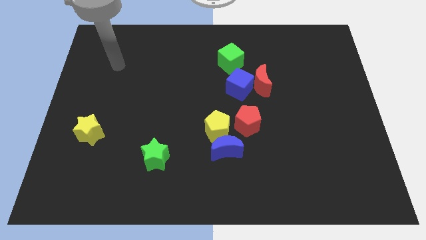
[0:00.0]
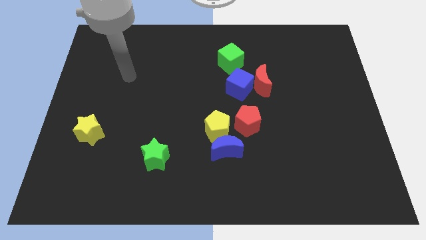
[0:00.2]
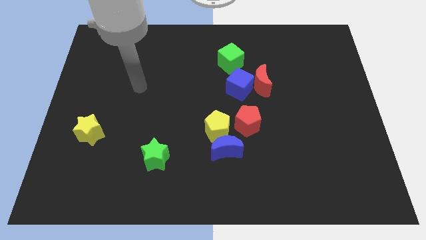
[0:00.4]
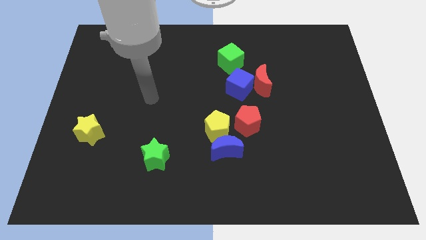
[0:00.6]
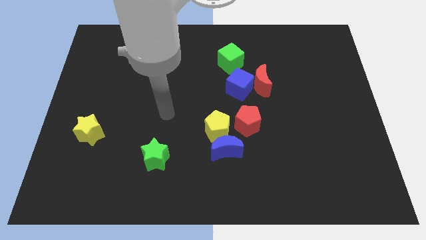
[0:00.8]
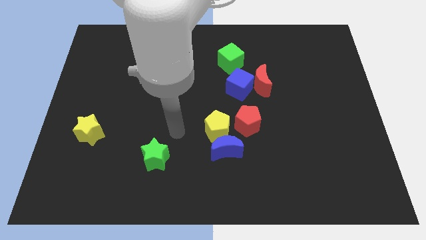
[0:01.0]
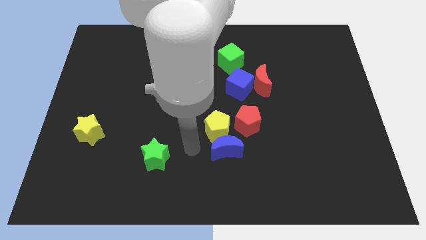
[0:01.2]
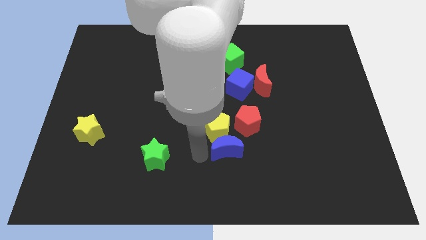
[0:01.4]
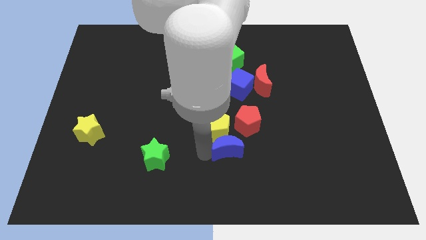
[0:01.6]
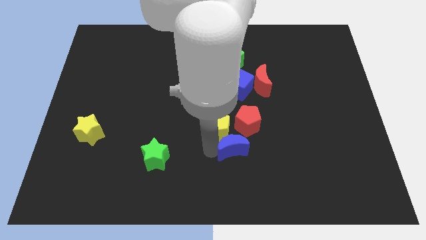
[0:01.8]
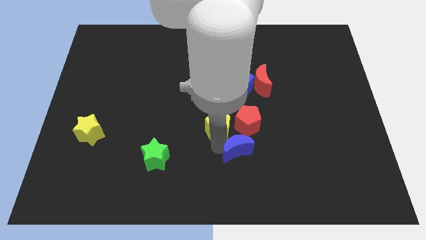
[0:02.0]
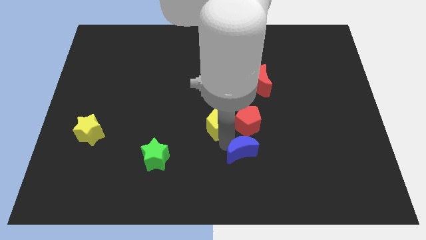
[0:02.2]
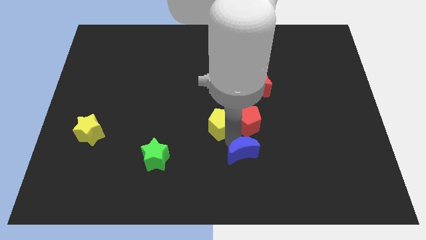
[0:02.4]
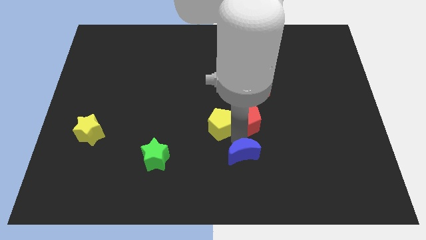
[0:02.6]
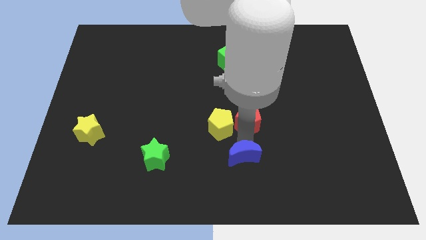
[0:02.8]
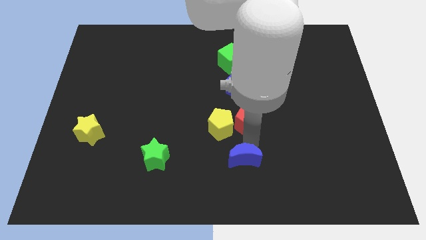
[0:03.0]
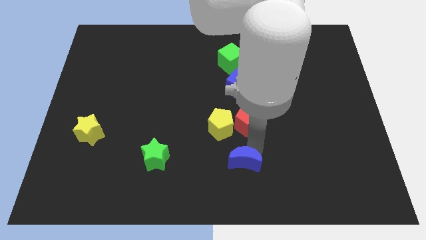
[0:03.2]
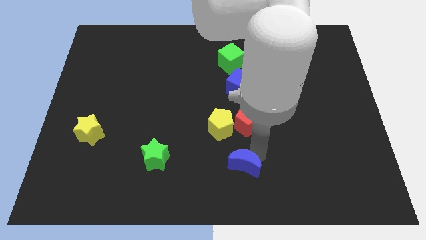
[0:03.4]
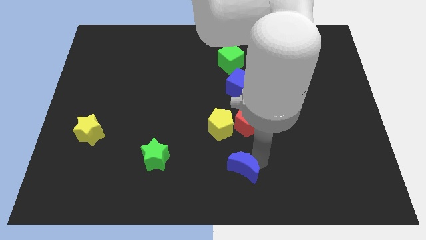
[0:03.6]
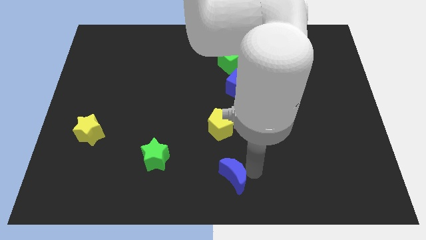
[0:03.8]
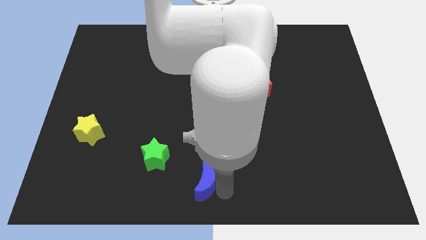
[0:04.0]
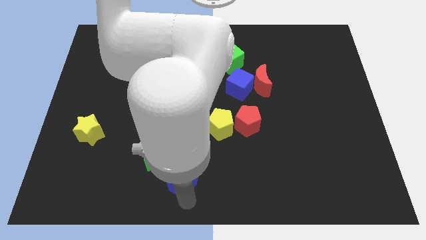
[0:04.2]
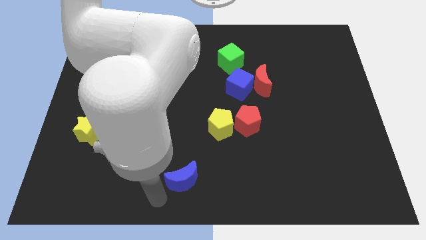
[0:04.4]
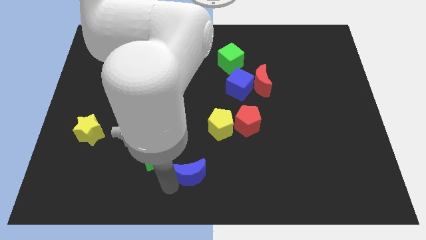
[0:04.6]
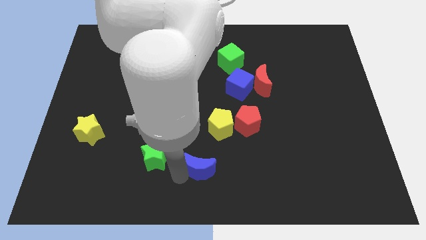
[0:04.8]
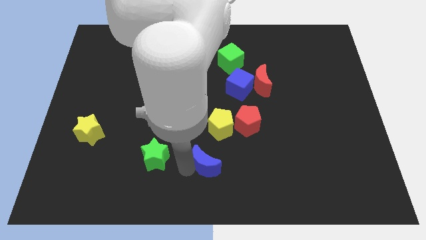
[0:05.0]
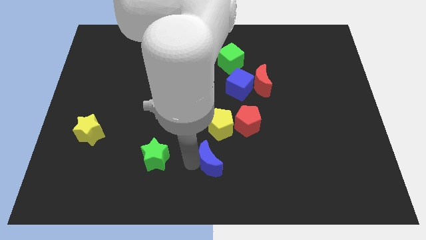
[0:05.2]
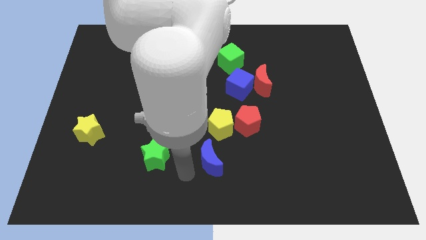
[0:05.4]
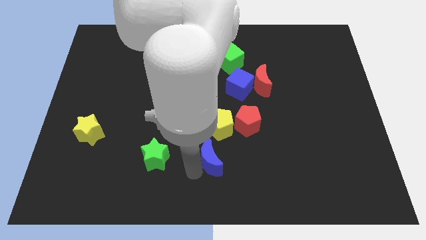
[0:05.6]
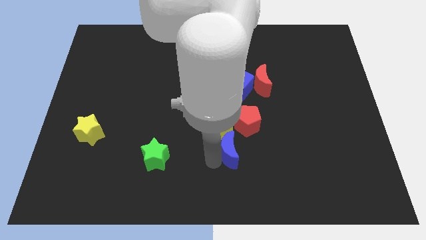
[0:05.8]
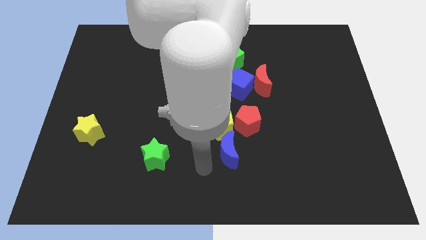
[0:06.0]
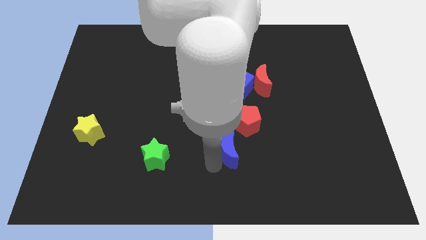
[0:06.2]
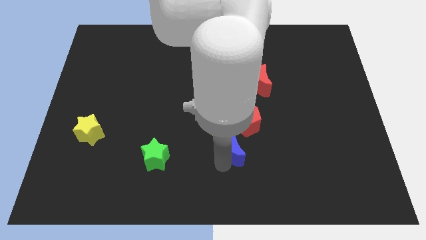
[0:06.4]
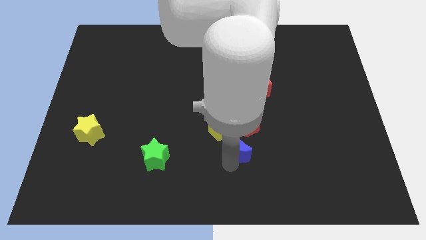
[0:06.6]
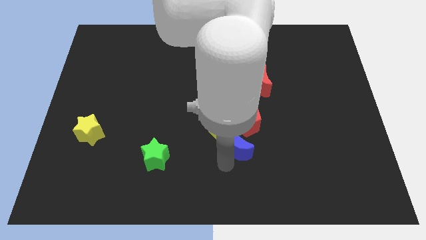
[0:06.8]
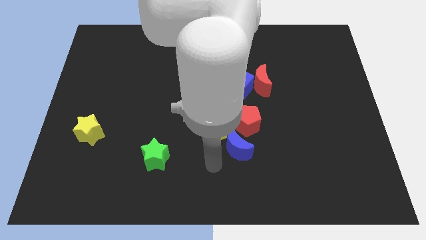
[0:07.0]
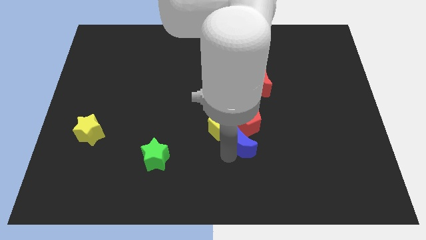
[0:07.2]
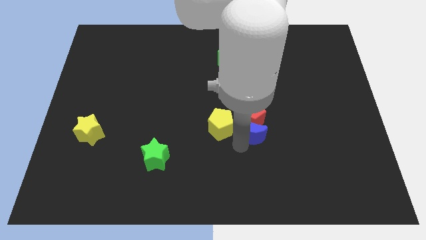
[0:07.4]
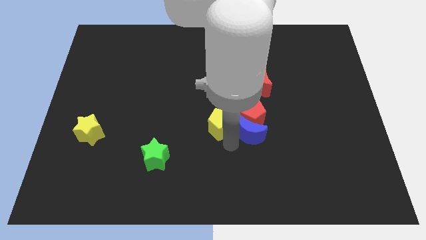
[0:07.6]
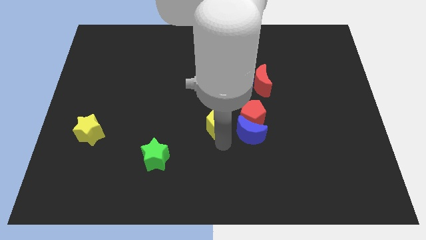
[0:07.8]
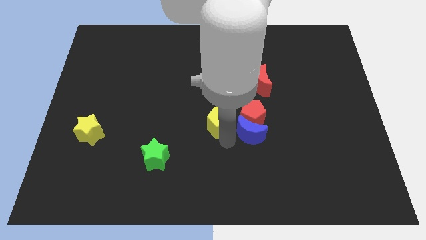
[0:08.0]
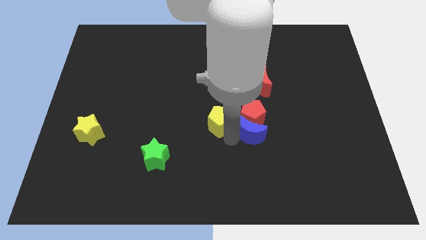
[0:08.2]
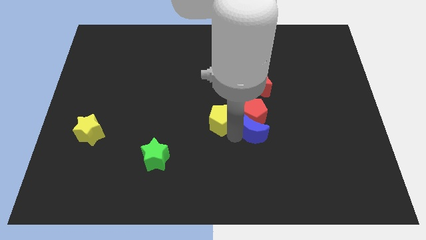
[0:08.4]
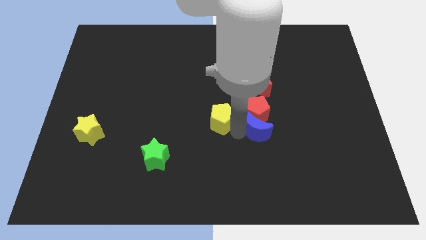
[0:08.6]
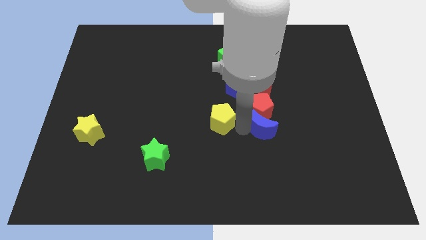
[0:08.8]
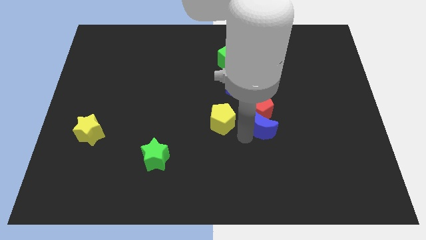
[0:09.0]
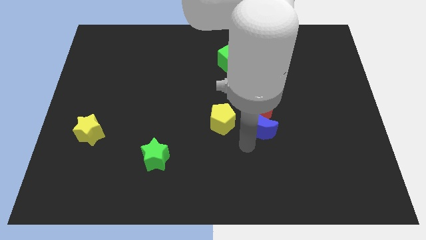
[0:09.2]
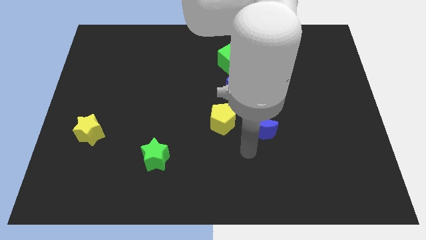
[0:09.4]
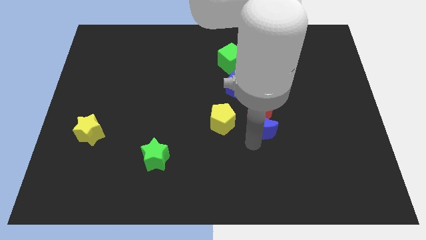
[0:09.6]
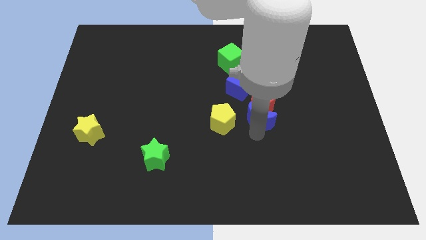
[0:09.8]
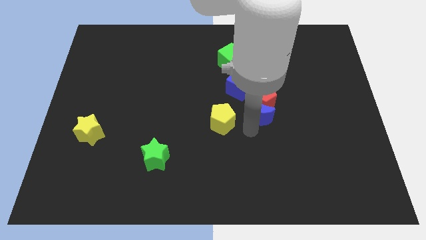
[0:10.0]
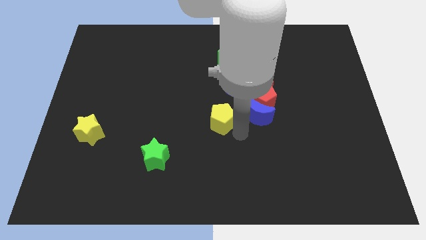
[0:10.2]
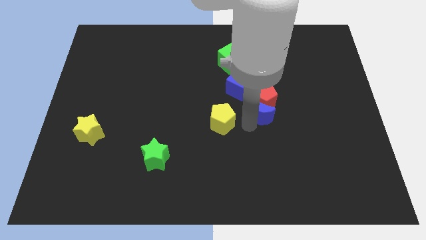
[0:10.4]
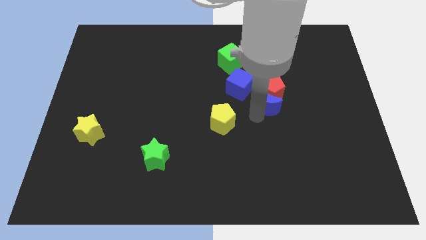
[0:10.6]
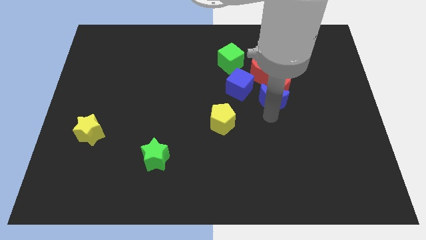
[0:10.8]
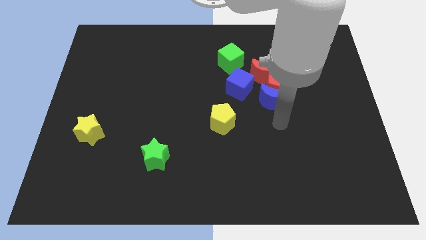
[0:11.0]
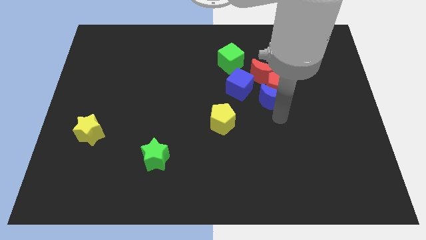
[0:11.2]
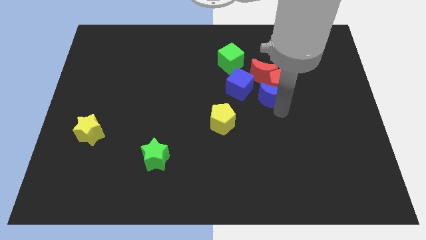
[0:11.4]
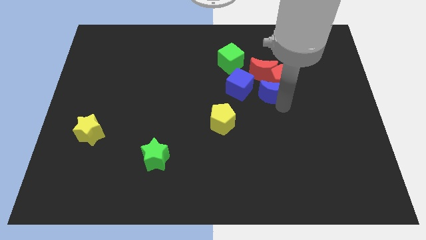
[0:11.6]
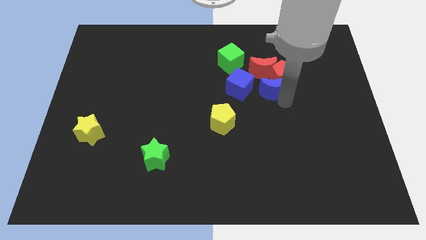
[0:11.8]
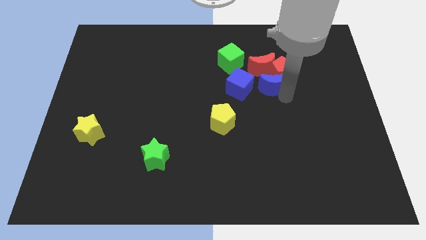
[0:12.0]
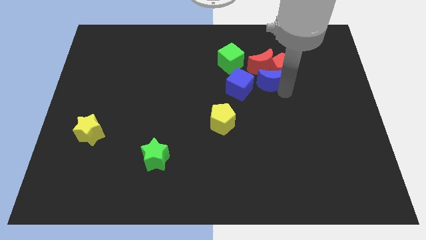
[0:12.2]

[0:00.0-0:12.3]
put the blue moon to the red moon

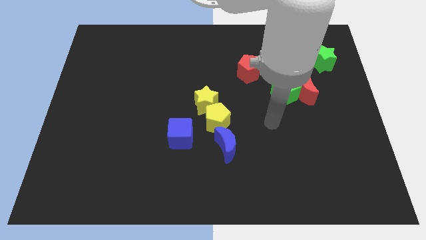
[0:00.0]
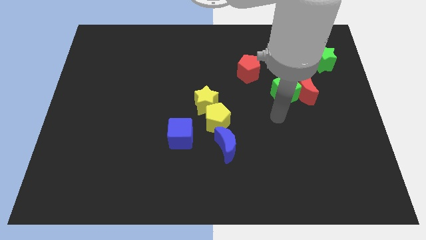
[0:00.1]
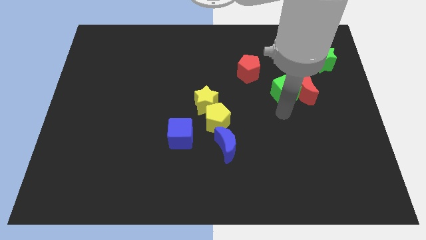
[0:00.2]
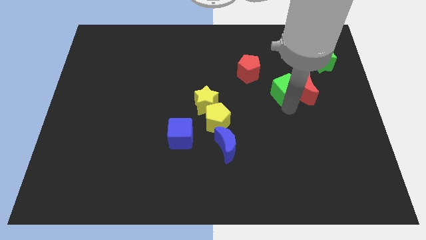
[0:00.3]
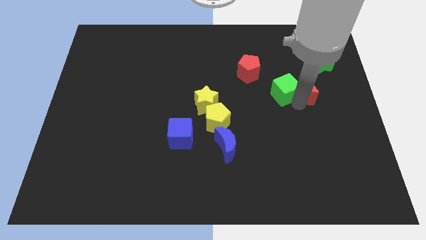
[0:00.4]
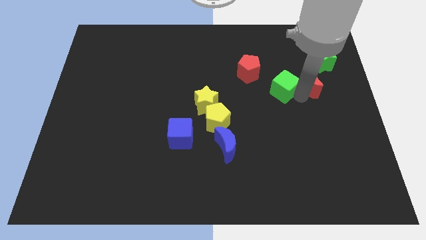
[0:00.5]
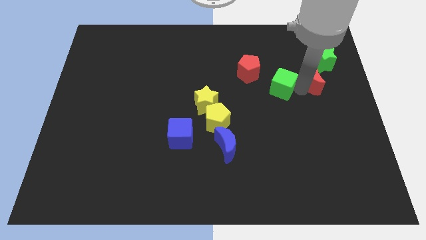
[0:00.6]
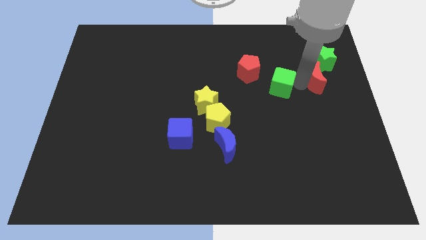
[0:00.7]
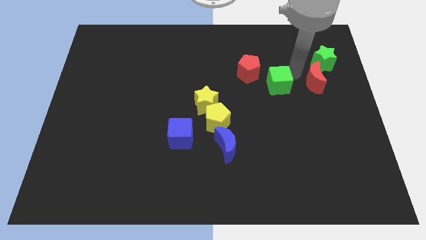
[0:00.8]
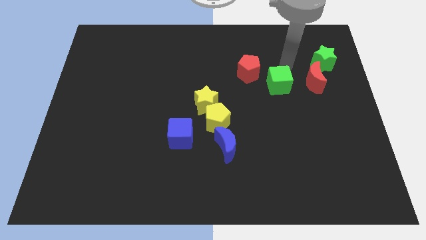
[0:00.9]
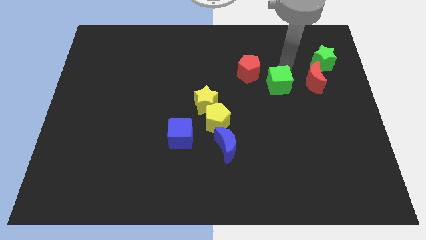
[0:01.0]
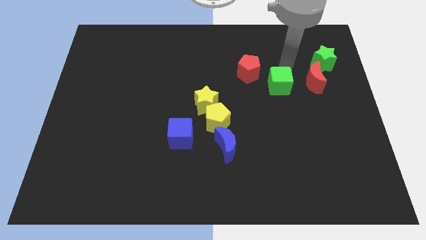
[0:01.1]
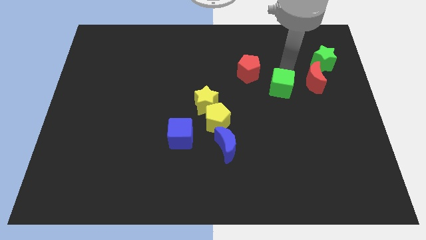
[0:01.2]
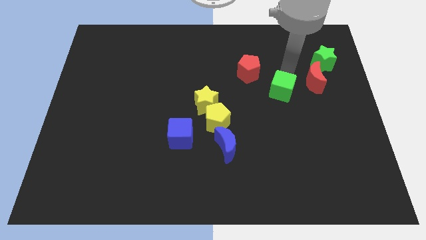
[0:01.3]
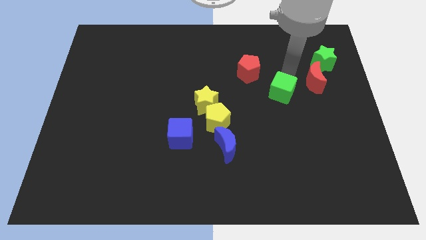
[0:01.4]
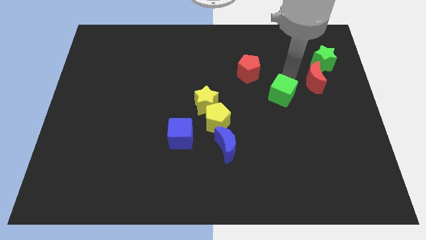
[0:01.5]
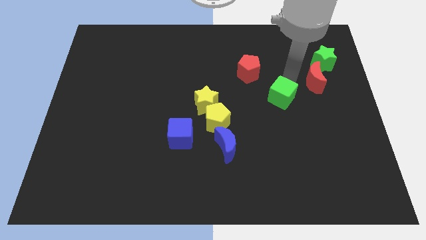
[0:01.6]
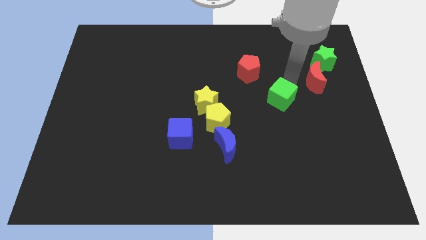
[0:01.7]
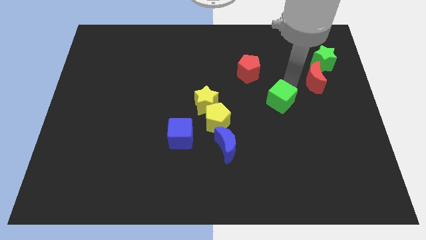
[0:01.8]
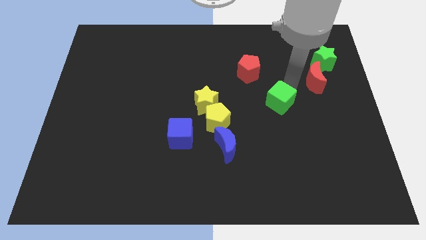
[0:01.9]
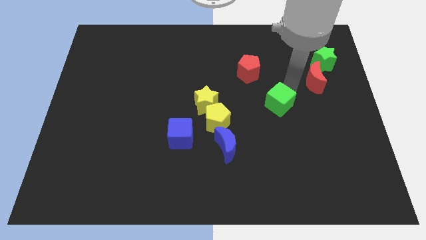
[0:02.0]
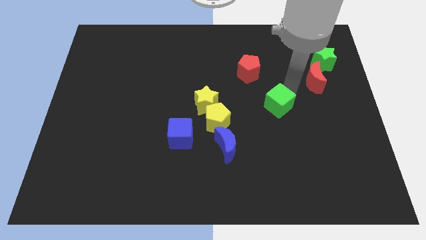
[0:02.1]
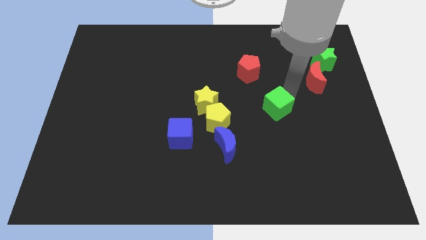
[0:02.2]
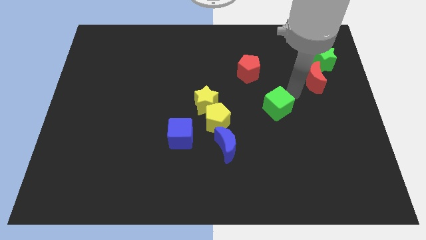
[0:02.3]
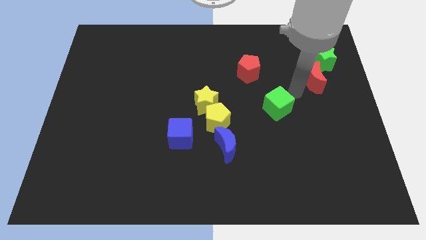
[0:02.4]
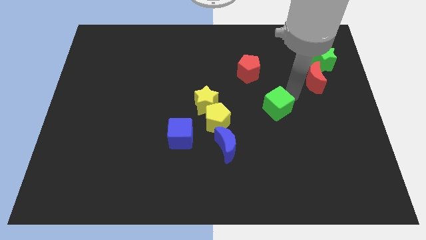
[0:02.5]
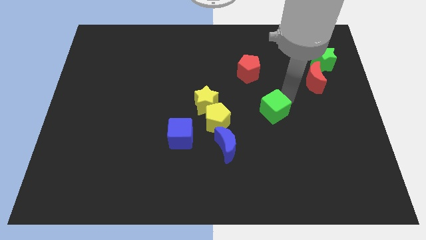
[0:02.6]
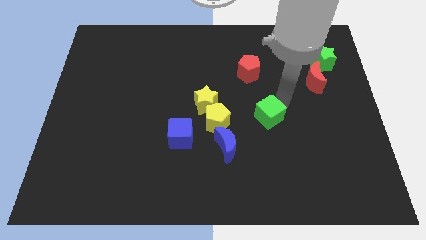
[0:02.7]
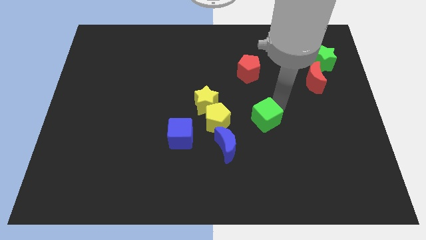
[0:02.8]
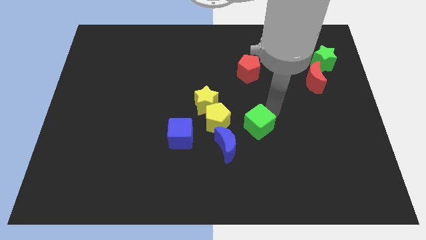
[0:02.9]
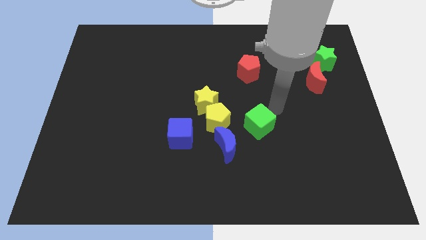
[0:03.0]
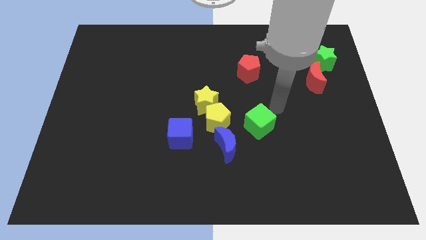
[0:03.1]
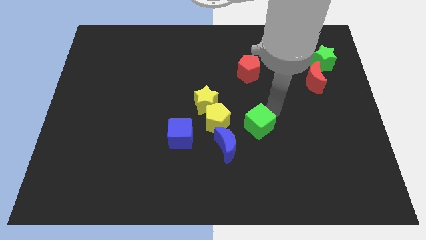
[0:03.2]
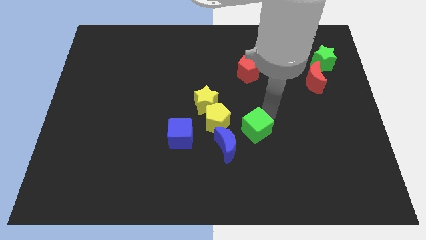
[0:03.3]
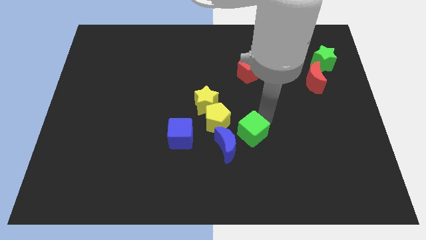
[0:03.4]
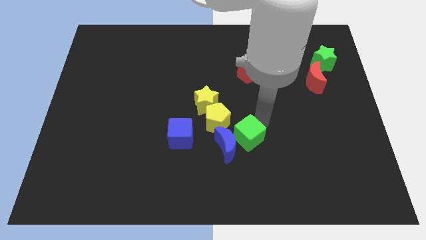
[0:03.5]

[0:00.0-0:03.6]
slide the green cube towards the blue moon
